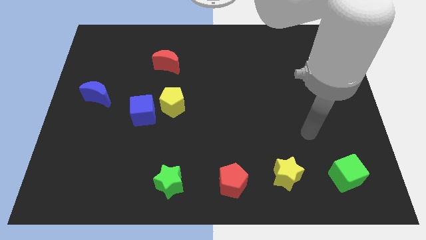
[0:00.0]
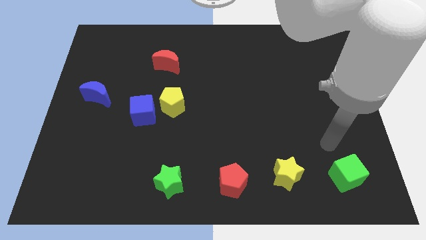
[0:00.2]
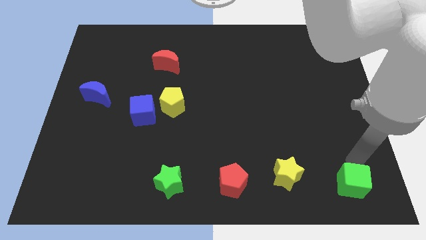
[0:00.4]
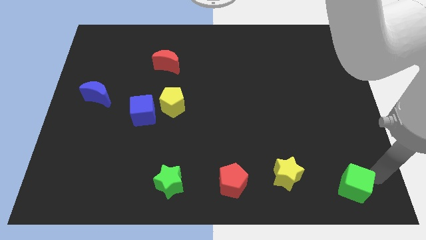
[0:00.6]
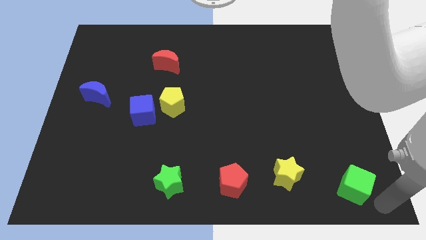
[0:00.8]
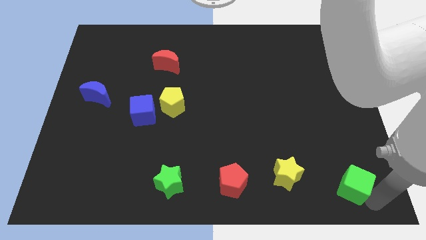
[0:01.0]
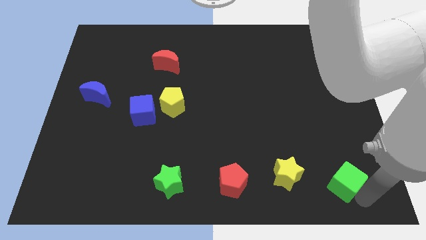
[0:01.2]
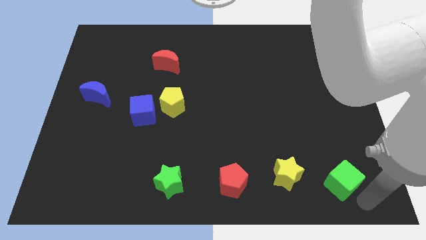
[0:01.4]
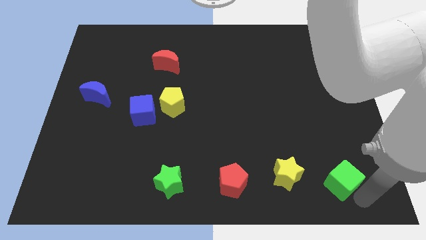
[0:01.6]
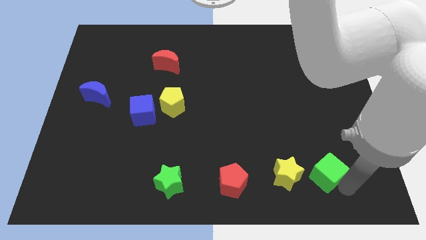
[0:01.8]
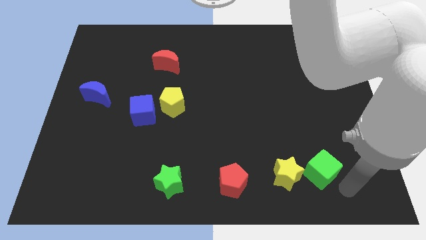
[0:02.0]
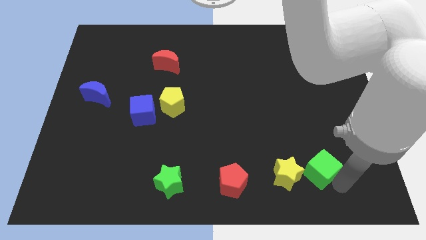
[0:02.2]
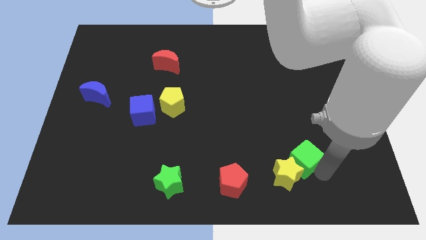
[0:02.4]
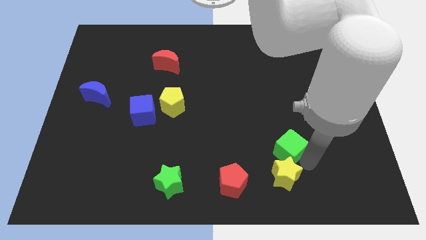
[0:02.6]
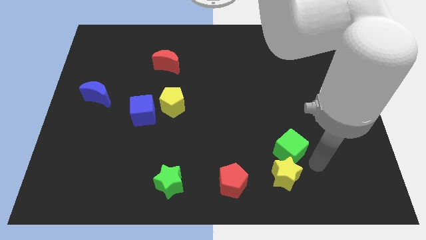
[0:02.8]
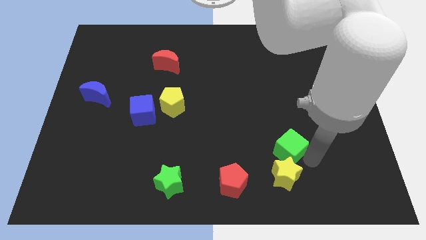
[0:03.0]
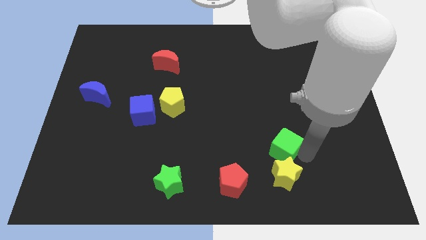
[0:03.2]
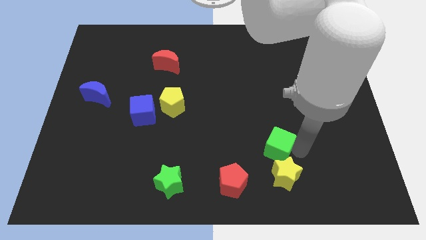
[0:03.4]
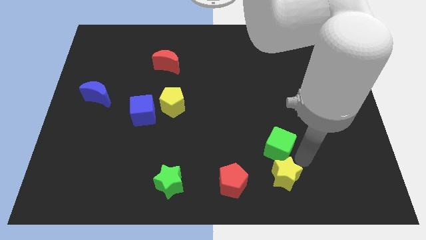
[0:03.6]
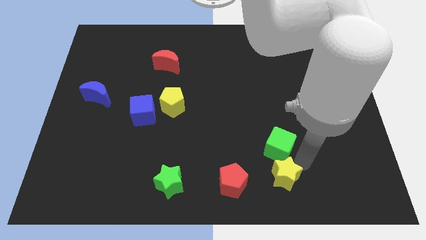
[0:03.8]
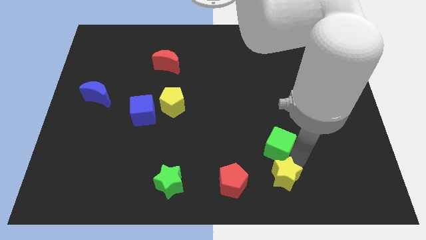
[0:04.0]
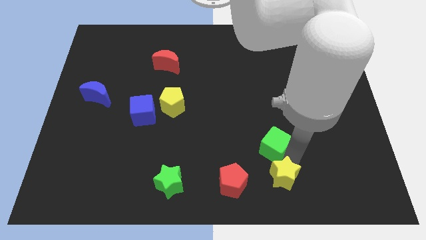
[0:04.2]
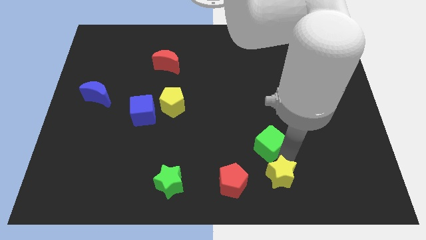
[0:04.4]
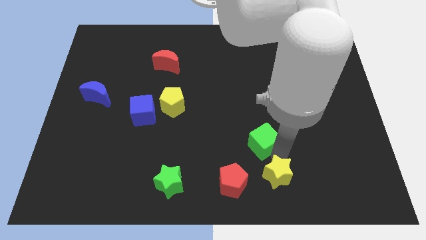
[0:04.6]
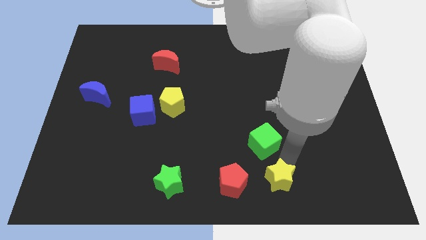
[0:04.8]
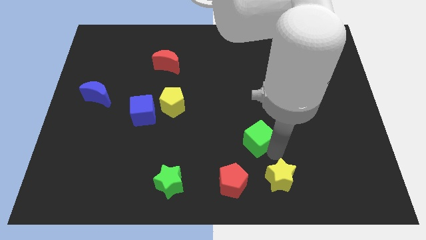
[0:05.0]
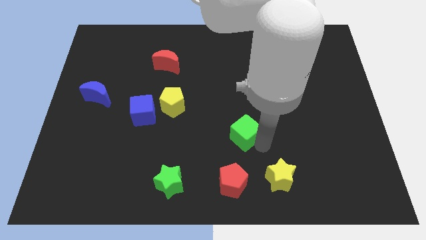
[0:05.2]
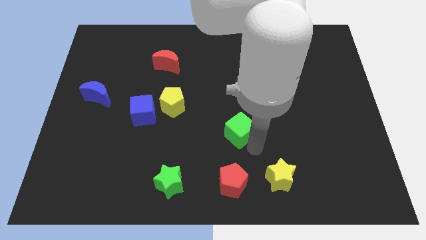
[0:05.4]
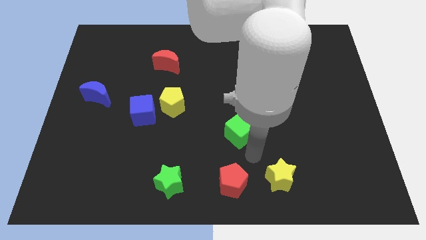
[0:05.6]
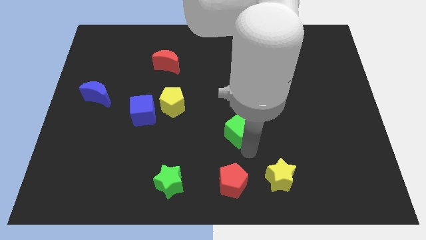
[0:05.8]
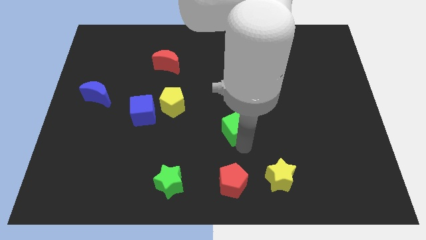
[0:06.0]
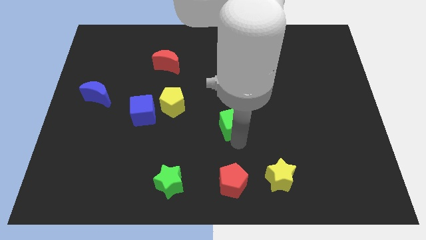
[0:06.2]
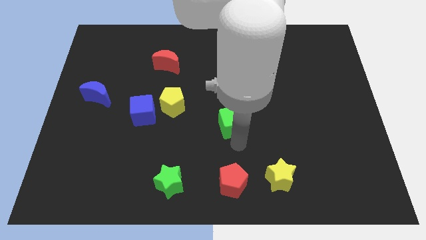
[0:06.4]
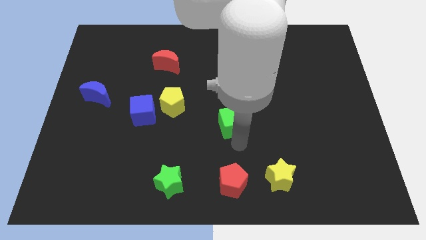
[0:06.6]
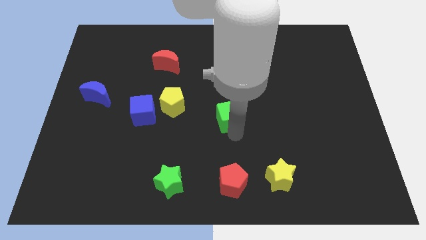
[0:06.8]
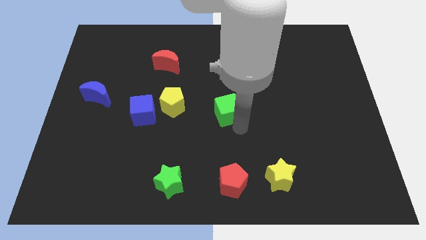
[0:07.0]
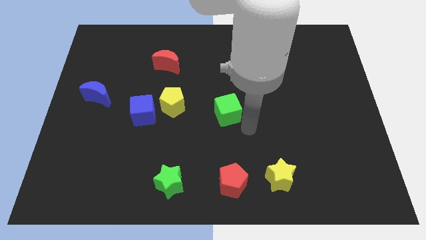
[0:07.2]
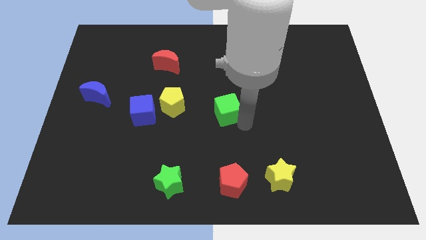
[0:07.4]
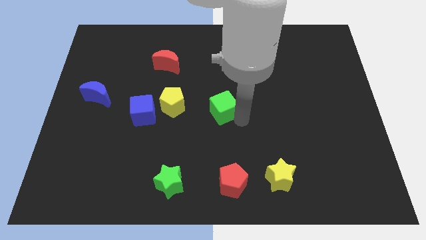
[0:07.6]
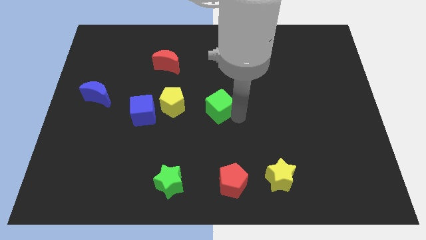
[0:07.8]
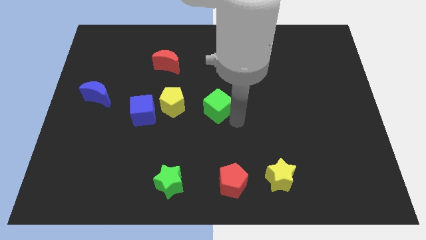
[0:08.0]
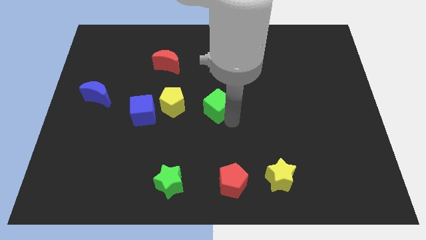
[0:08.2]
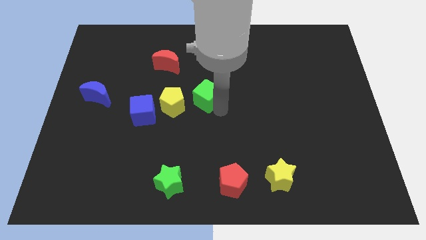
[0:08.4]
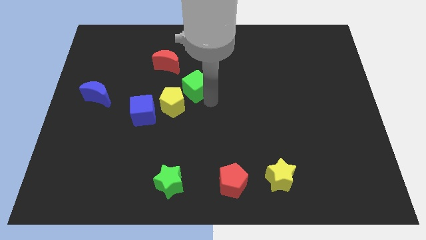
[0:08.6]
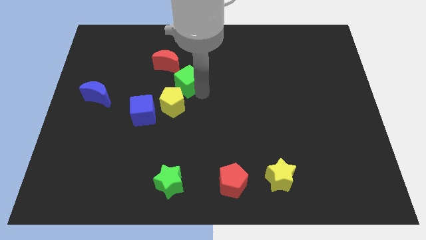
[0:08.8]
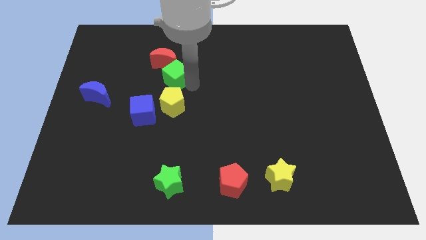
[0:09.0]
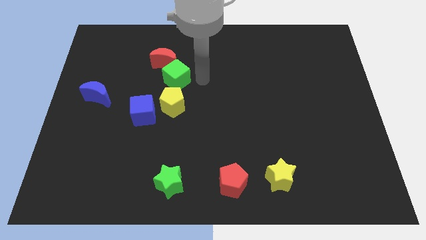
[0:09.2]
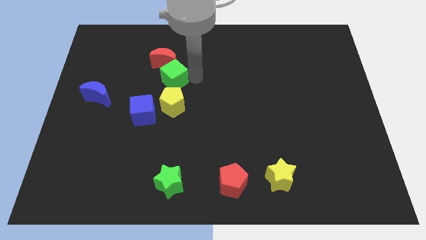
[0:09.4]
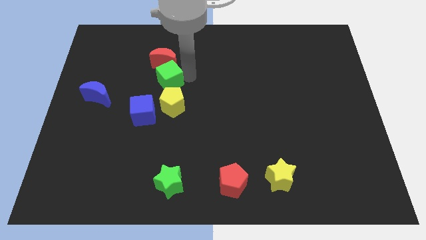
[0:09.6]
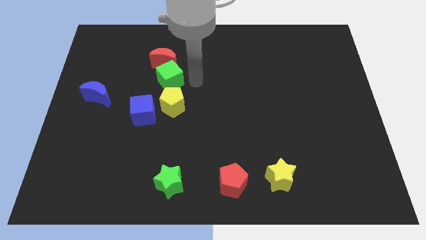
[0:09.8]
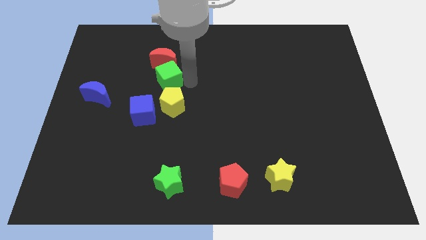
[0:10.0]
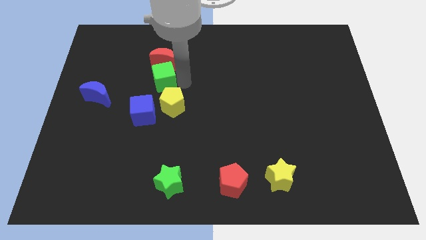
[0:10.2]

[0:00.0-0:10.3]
push the green cube to the bottom left of the red moon
